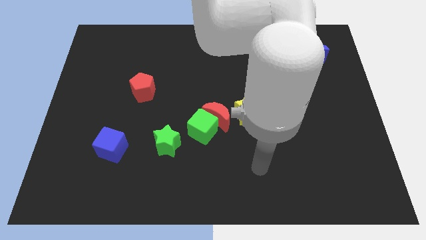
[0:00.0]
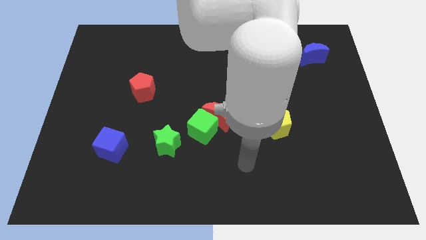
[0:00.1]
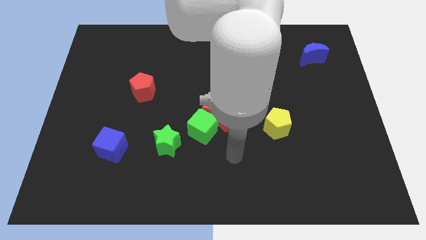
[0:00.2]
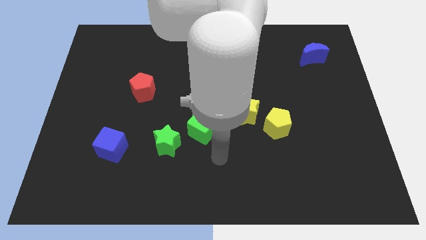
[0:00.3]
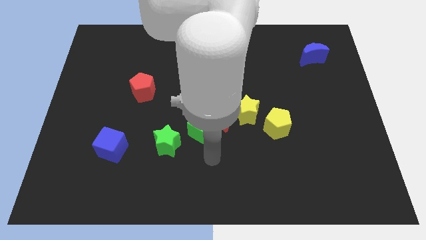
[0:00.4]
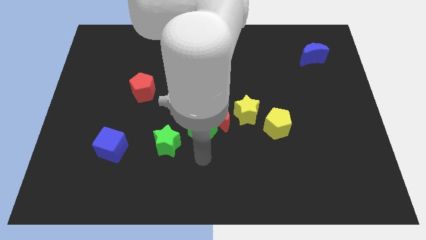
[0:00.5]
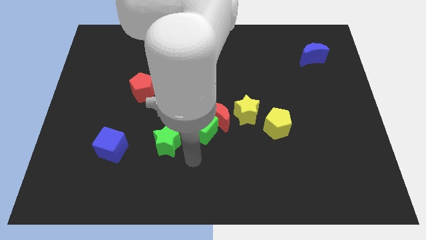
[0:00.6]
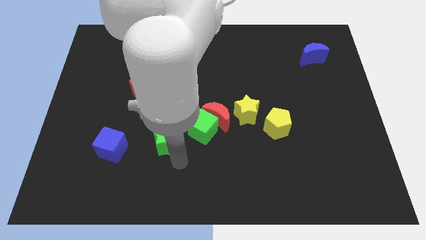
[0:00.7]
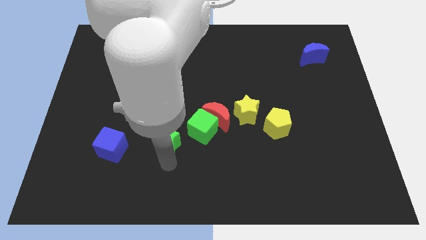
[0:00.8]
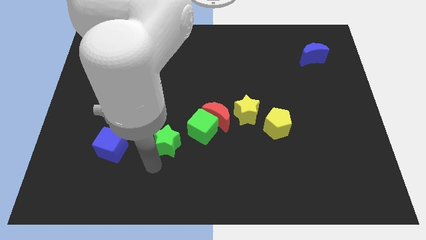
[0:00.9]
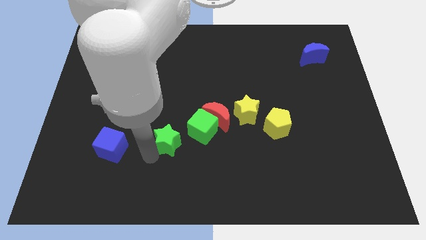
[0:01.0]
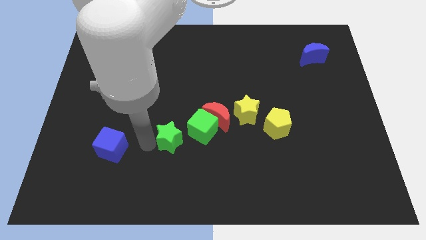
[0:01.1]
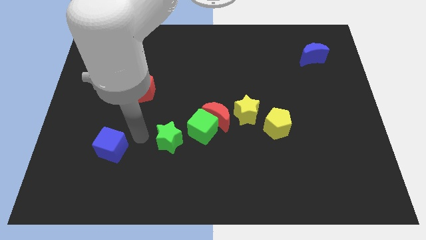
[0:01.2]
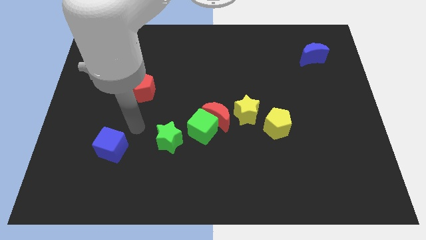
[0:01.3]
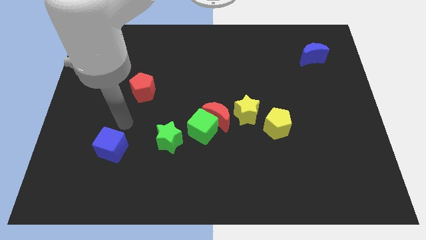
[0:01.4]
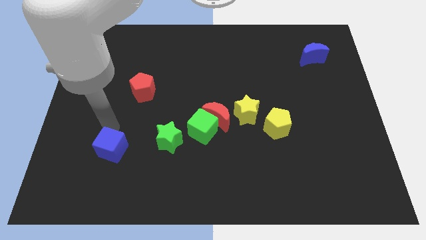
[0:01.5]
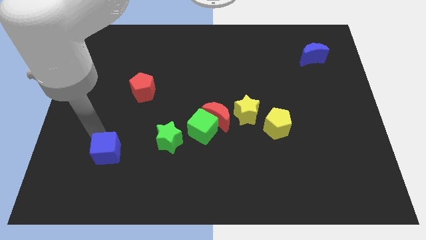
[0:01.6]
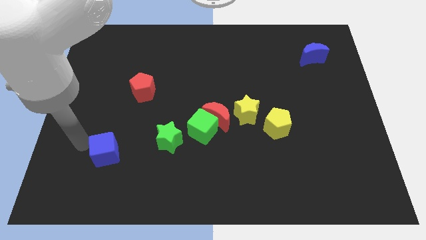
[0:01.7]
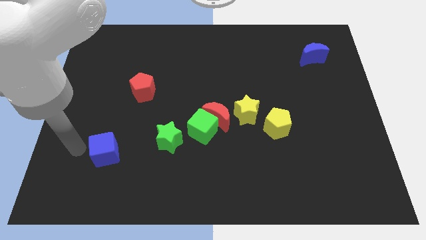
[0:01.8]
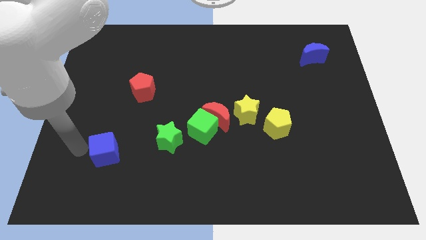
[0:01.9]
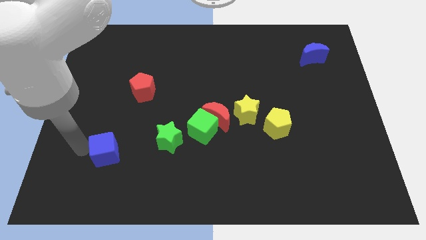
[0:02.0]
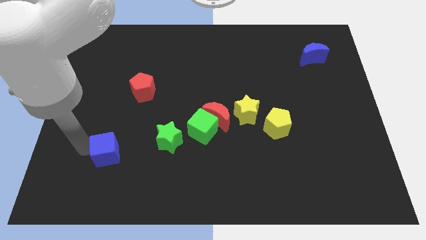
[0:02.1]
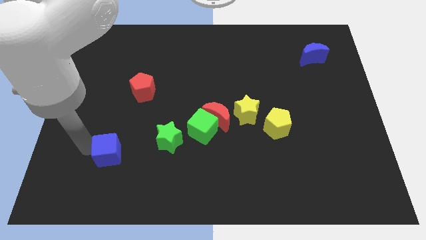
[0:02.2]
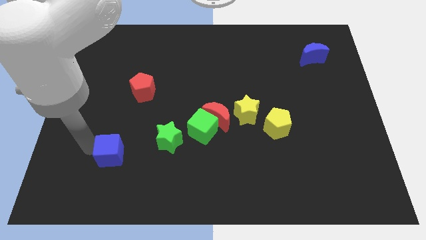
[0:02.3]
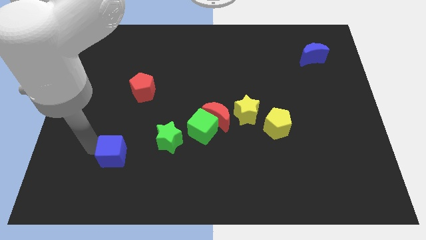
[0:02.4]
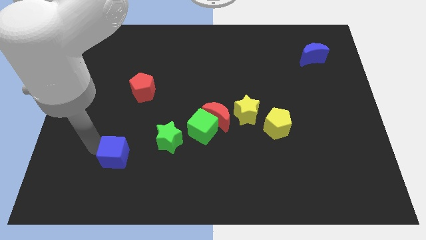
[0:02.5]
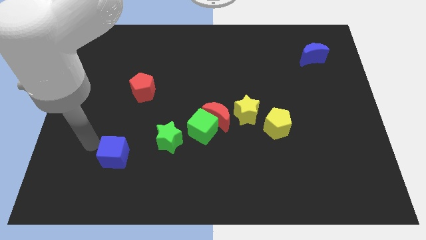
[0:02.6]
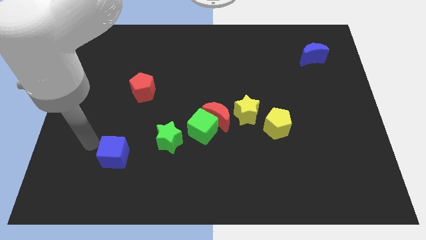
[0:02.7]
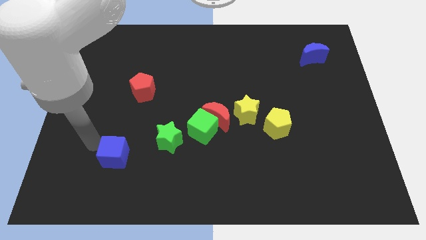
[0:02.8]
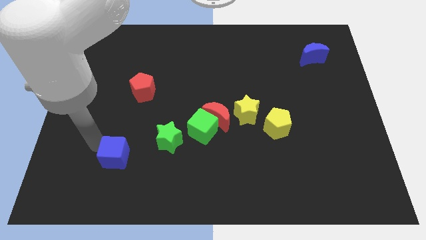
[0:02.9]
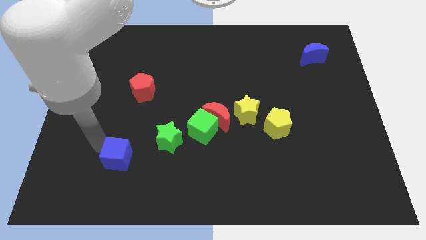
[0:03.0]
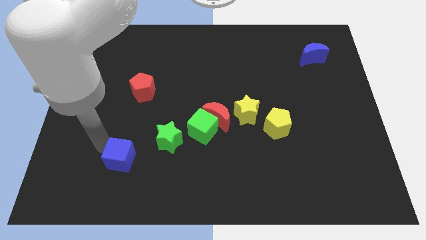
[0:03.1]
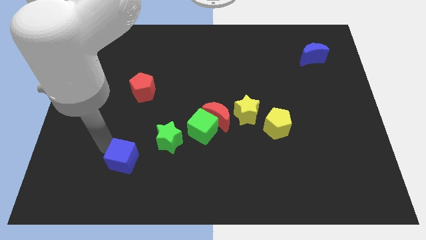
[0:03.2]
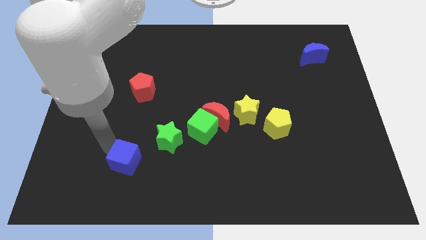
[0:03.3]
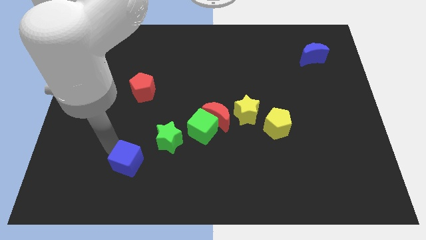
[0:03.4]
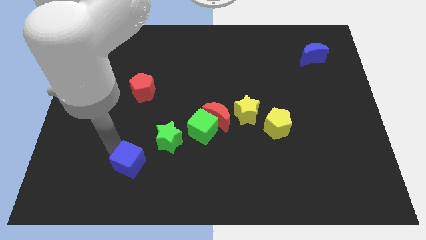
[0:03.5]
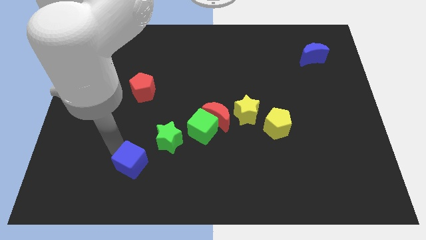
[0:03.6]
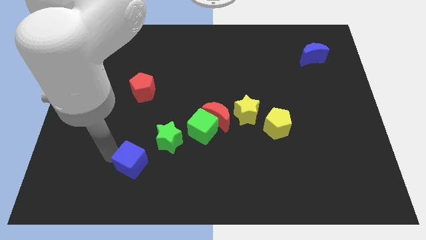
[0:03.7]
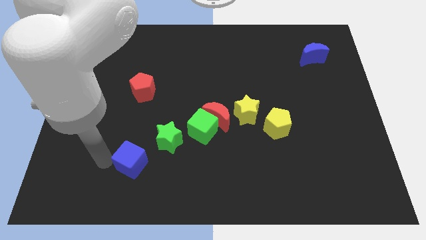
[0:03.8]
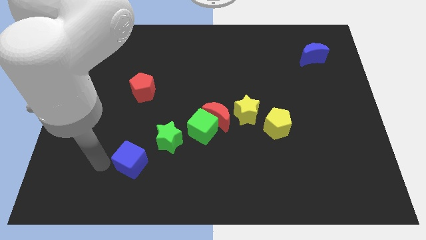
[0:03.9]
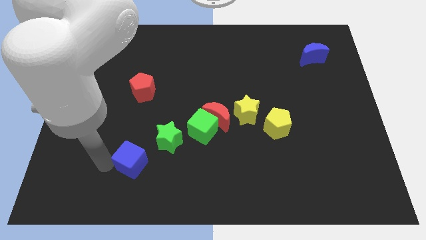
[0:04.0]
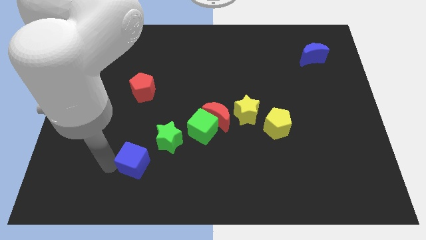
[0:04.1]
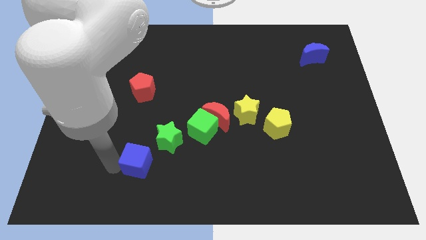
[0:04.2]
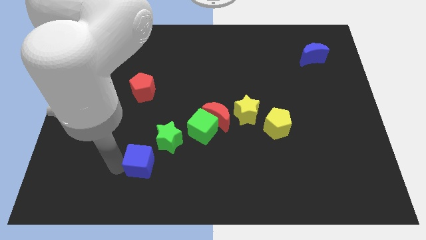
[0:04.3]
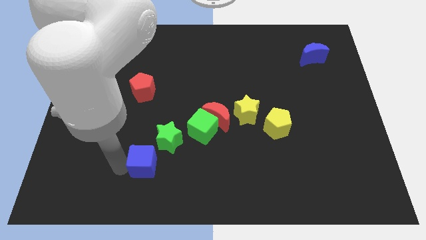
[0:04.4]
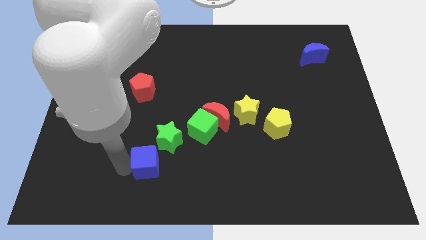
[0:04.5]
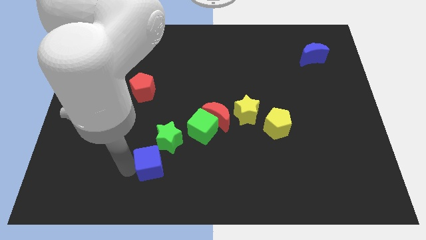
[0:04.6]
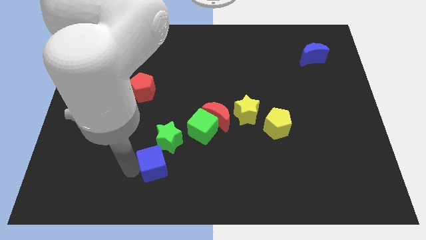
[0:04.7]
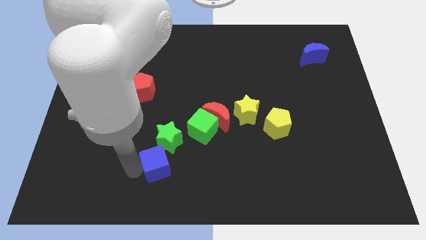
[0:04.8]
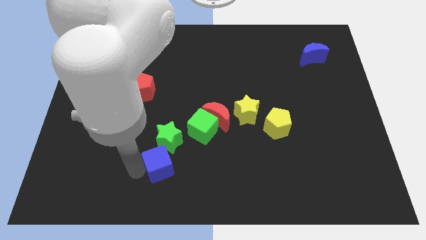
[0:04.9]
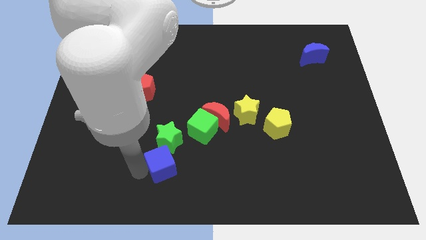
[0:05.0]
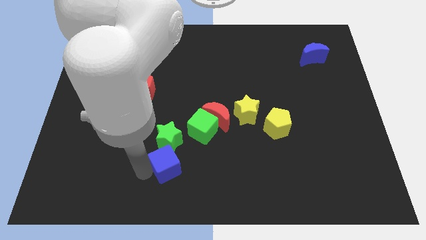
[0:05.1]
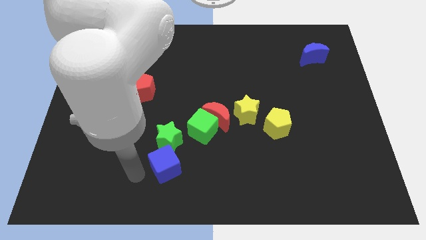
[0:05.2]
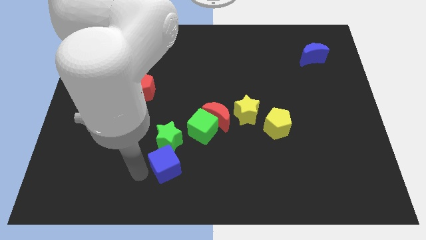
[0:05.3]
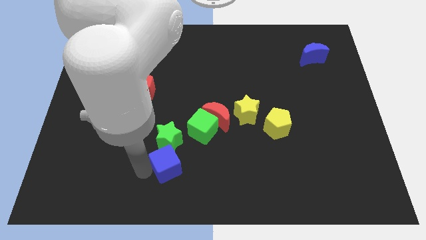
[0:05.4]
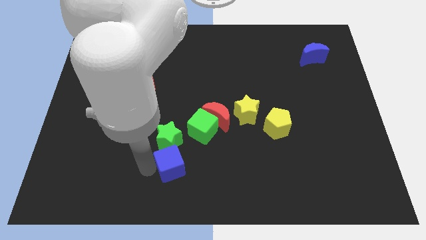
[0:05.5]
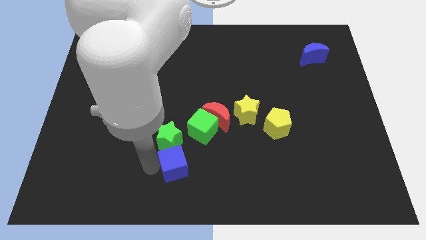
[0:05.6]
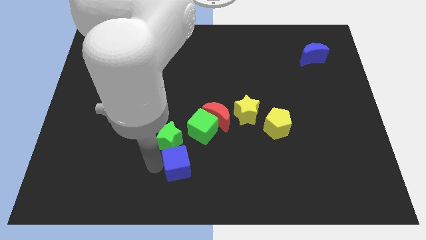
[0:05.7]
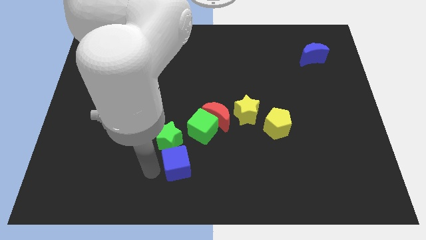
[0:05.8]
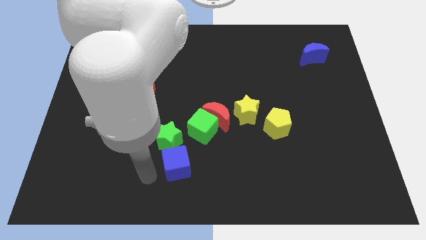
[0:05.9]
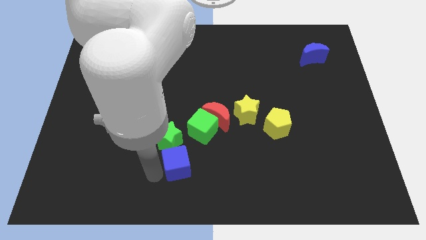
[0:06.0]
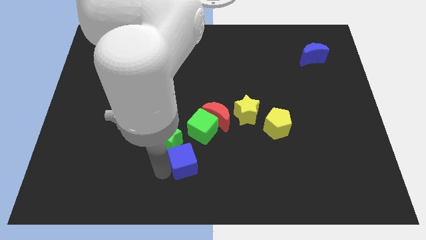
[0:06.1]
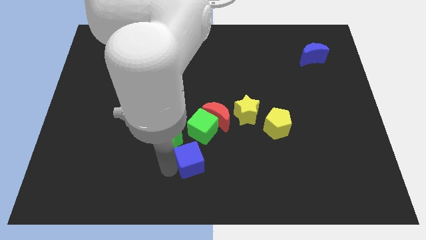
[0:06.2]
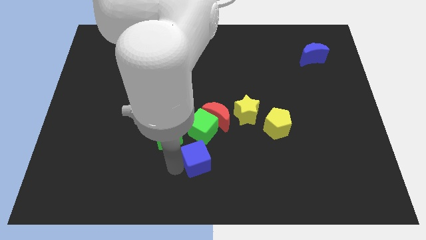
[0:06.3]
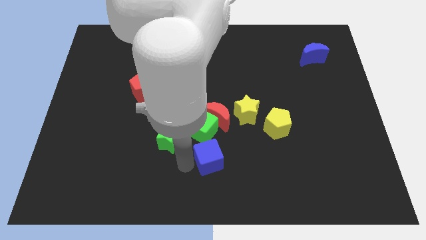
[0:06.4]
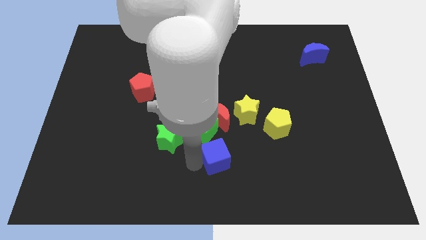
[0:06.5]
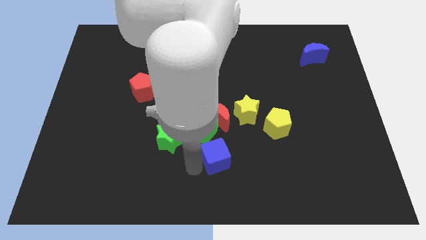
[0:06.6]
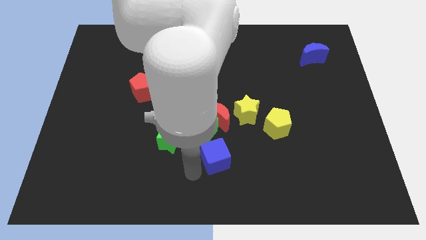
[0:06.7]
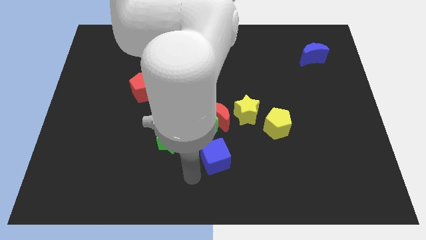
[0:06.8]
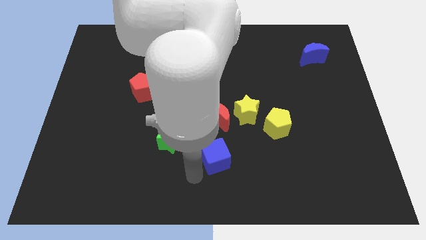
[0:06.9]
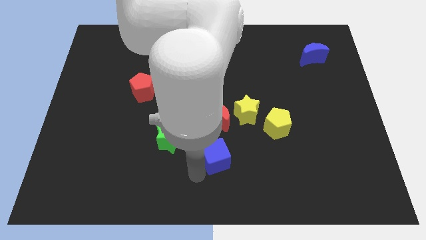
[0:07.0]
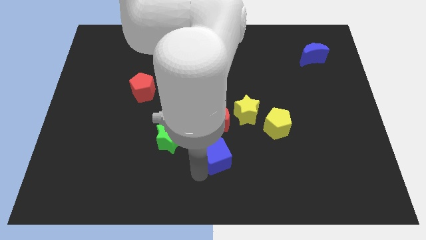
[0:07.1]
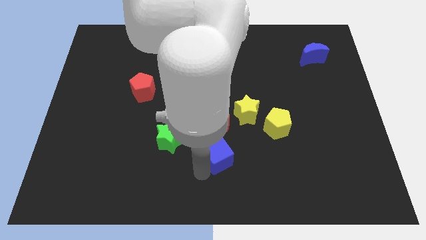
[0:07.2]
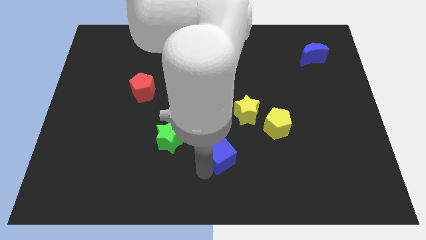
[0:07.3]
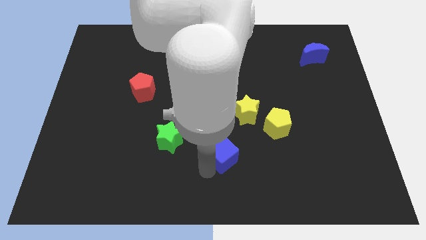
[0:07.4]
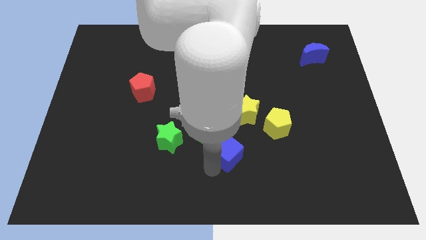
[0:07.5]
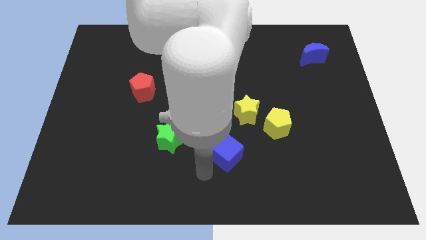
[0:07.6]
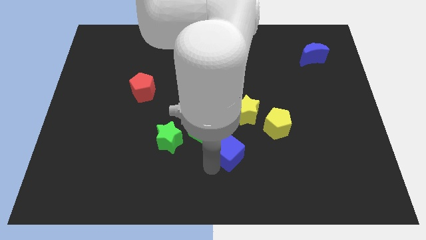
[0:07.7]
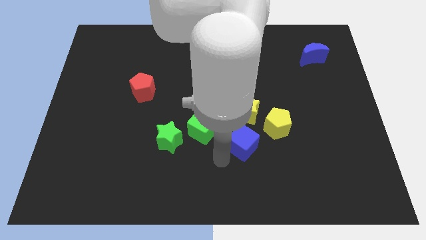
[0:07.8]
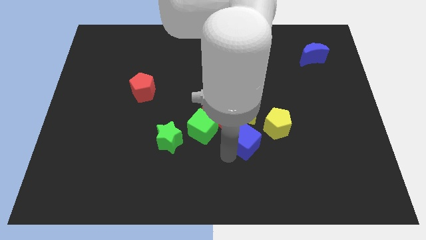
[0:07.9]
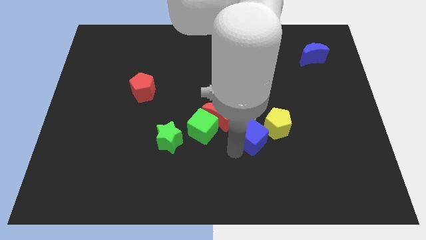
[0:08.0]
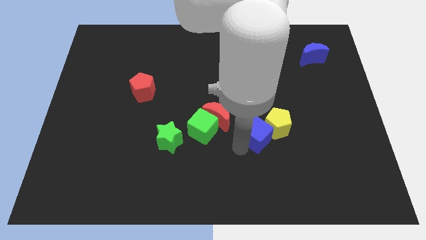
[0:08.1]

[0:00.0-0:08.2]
move the blue cube next to the yellow pentagon
